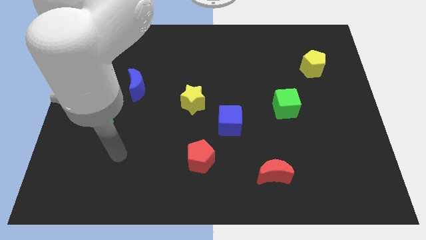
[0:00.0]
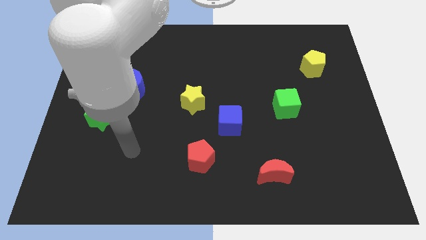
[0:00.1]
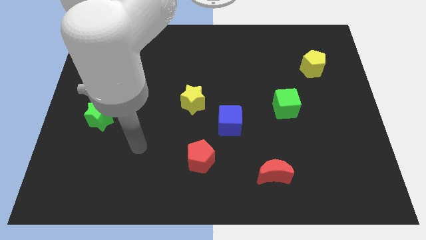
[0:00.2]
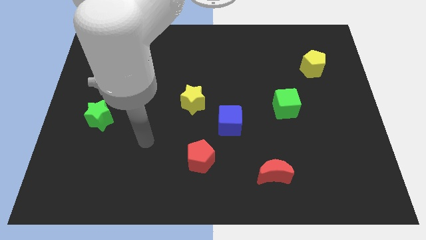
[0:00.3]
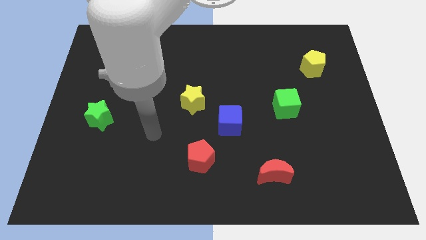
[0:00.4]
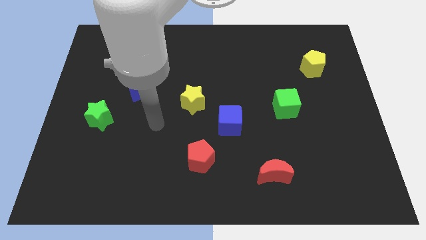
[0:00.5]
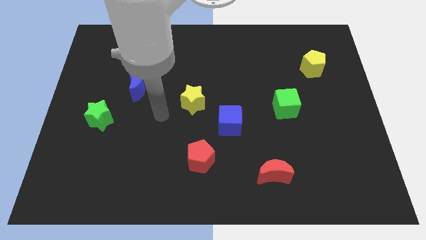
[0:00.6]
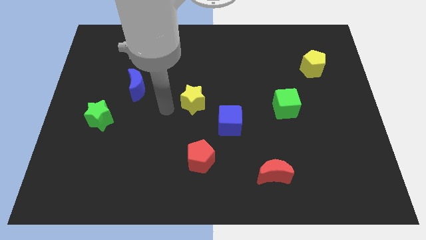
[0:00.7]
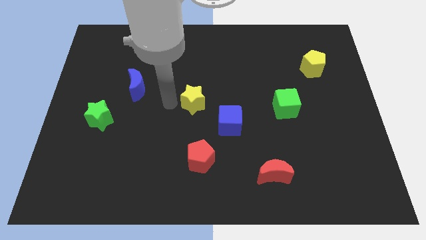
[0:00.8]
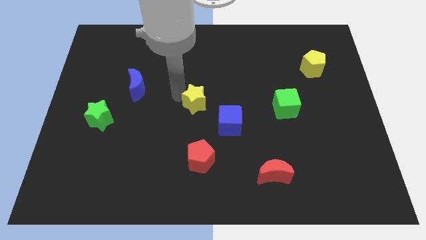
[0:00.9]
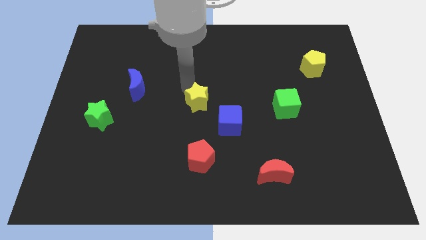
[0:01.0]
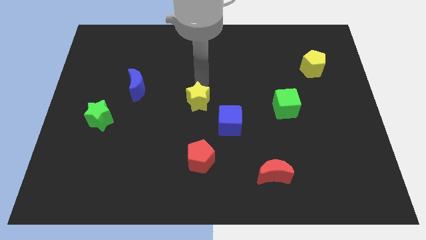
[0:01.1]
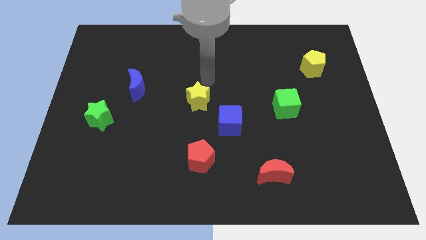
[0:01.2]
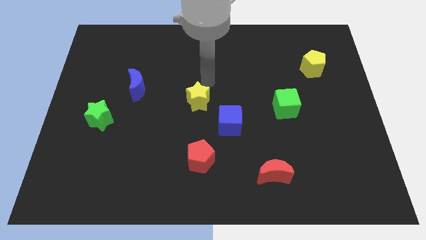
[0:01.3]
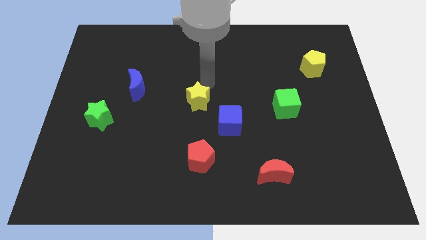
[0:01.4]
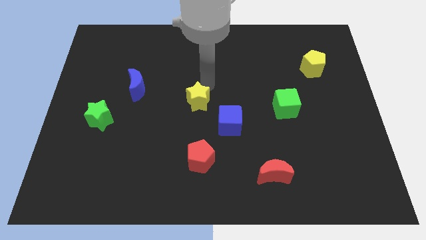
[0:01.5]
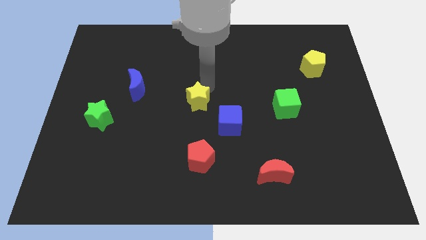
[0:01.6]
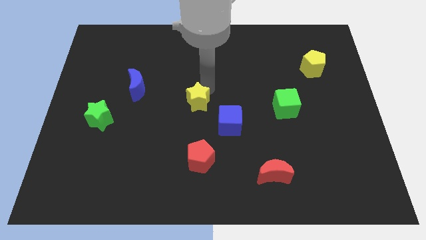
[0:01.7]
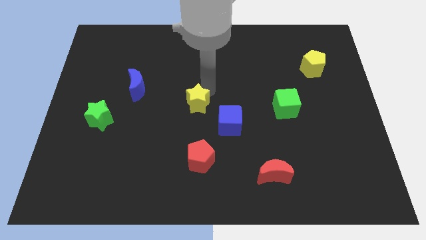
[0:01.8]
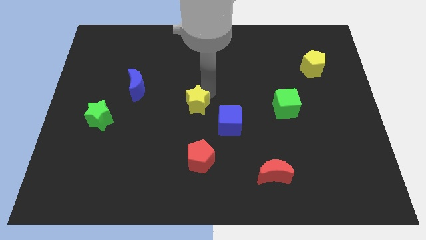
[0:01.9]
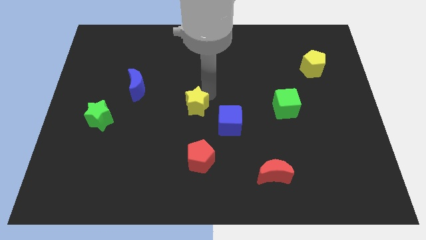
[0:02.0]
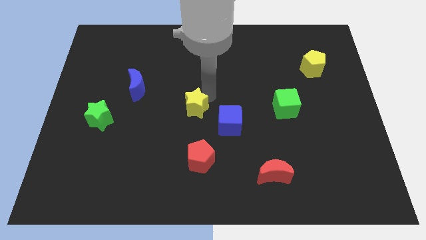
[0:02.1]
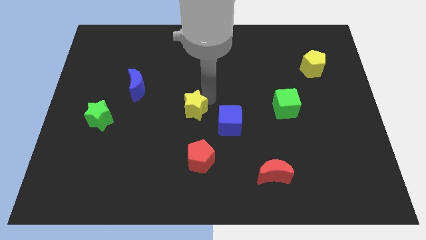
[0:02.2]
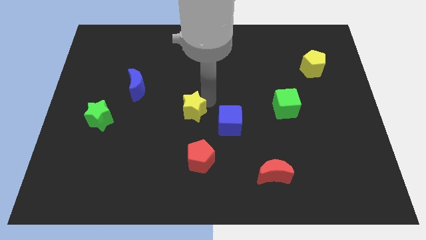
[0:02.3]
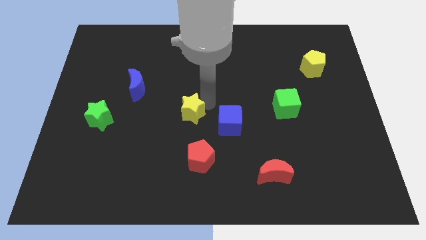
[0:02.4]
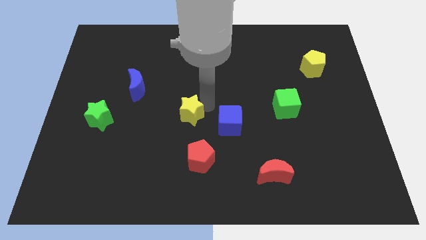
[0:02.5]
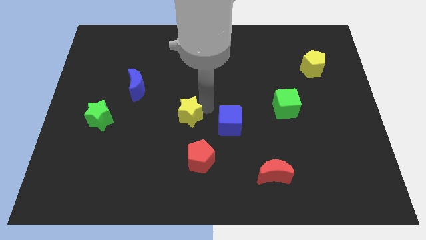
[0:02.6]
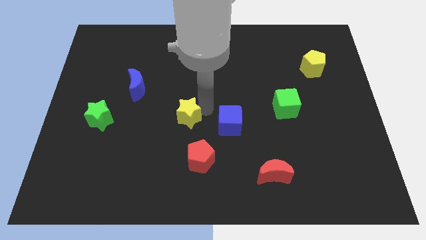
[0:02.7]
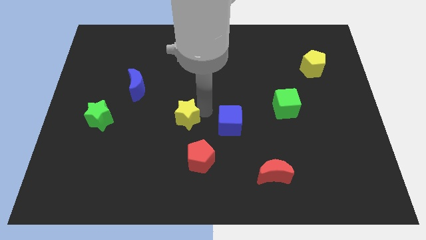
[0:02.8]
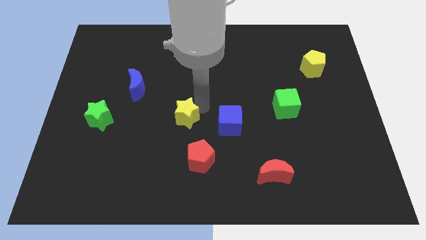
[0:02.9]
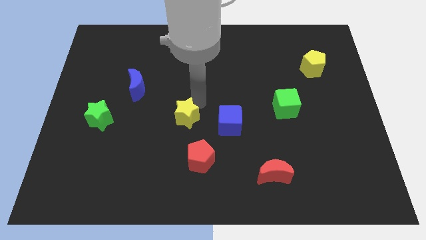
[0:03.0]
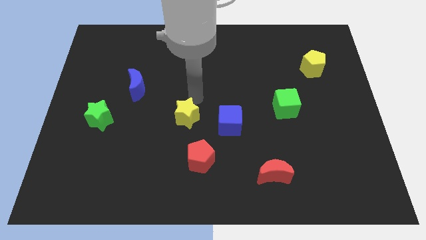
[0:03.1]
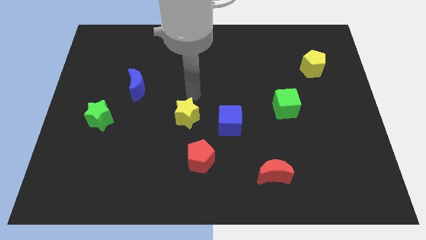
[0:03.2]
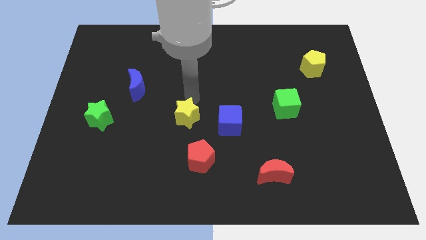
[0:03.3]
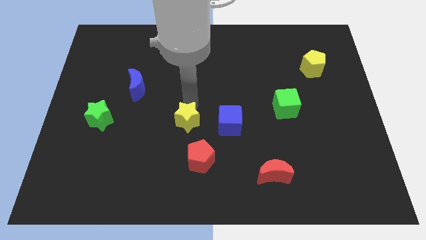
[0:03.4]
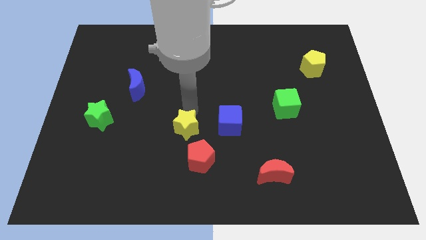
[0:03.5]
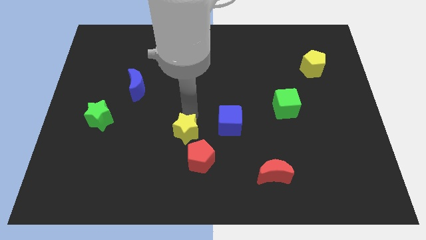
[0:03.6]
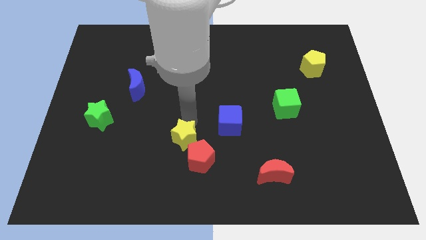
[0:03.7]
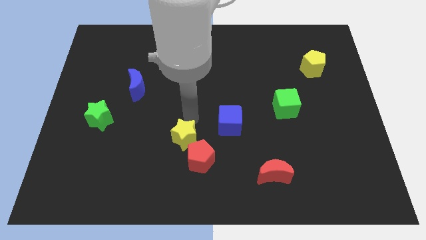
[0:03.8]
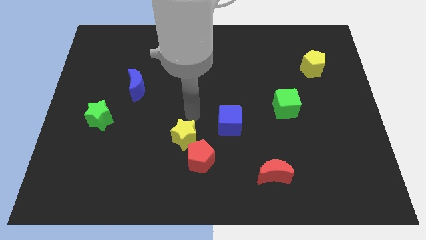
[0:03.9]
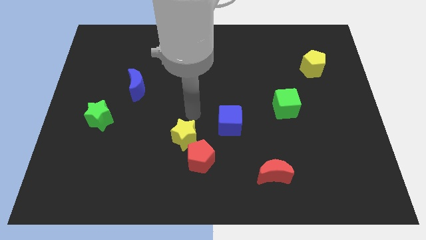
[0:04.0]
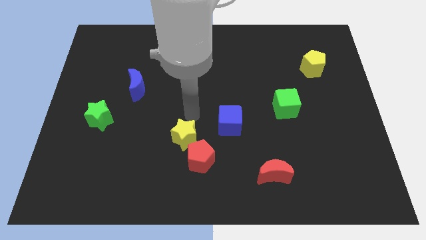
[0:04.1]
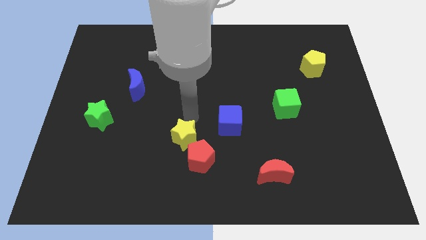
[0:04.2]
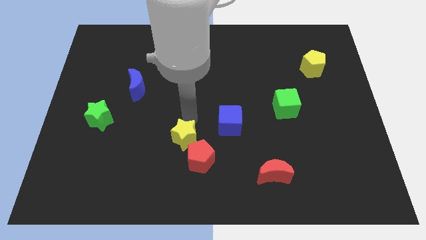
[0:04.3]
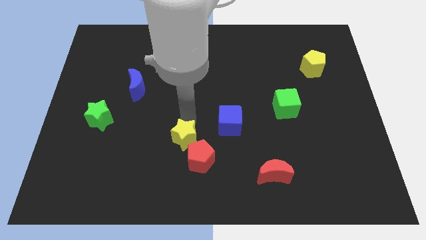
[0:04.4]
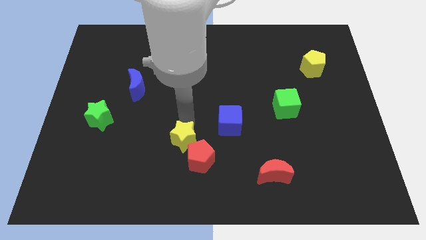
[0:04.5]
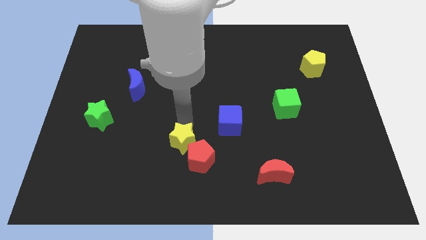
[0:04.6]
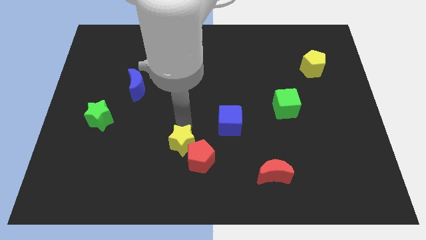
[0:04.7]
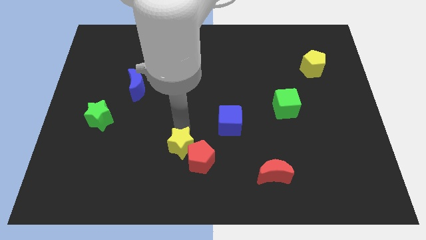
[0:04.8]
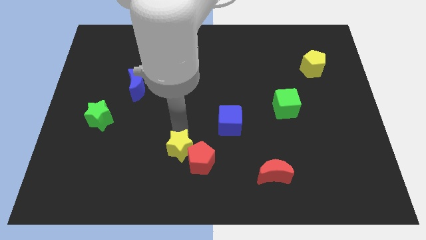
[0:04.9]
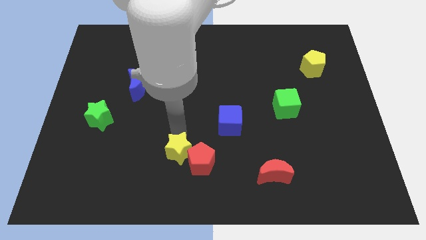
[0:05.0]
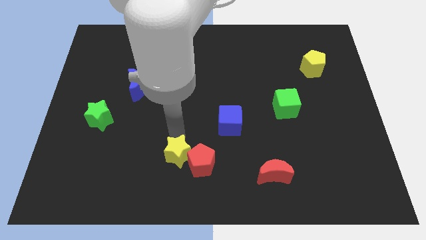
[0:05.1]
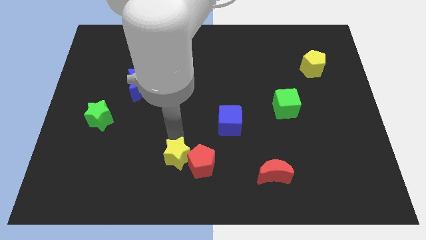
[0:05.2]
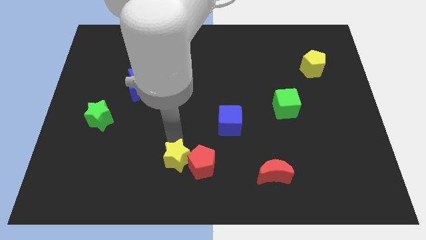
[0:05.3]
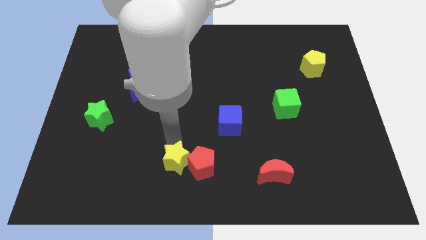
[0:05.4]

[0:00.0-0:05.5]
move the yellow star to the bottom side

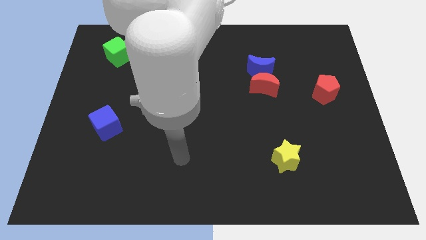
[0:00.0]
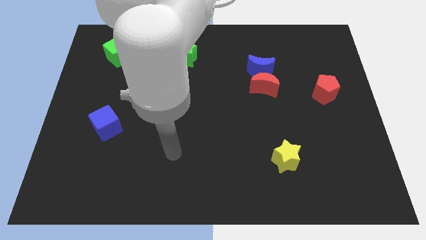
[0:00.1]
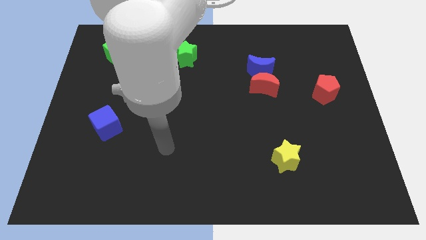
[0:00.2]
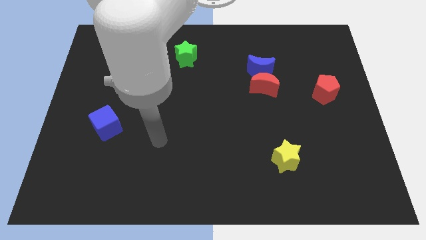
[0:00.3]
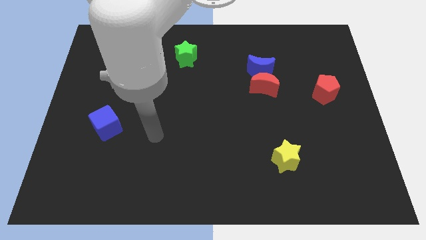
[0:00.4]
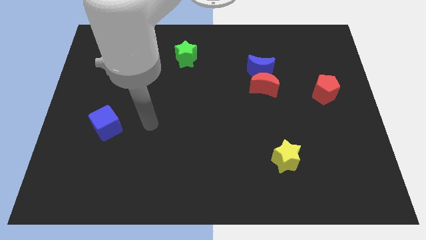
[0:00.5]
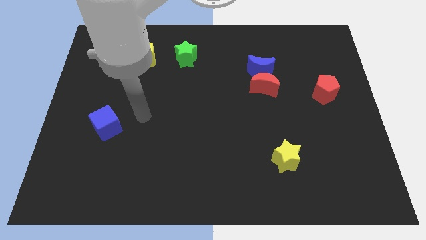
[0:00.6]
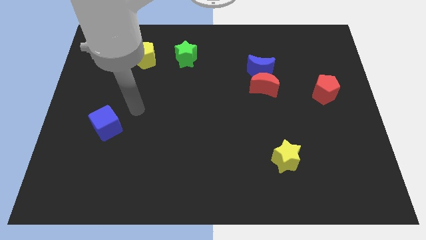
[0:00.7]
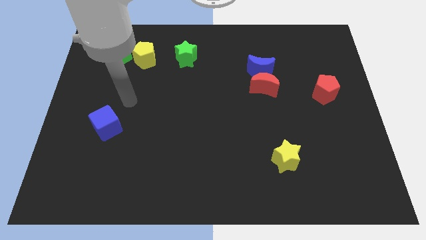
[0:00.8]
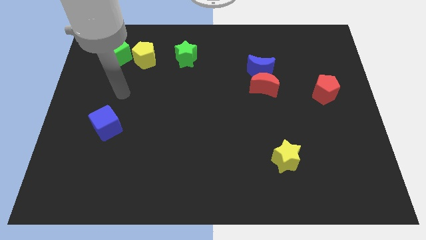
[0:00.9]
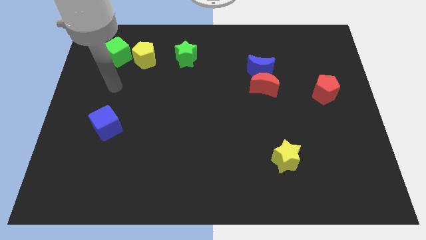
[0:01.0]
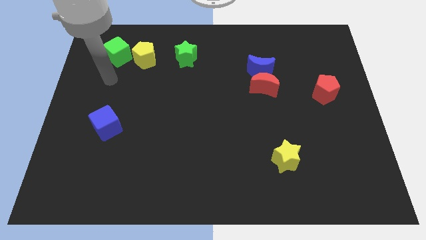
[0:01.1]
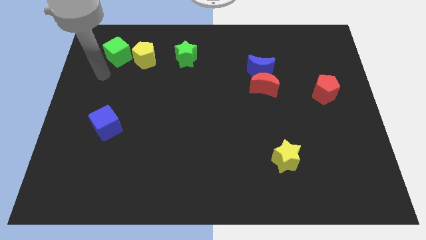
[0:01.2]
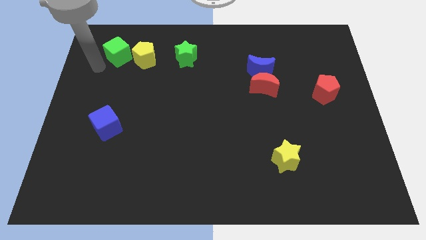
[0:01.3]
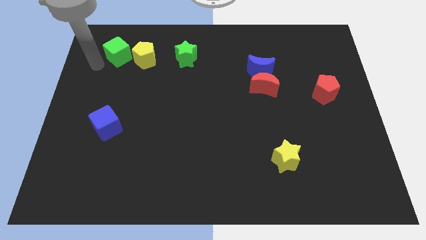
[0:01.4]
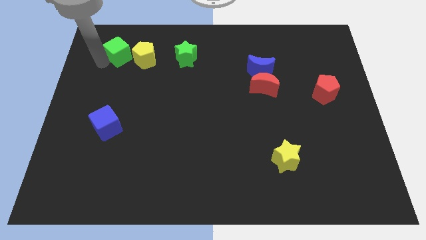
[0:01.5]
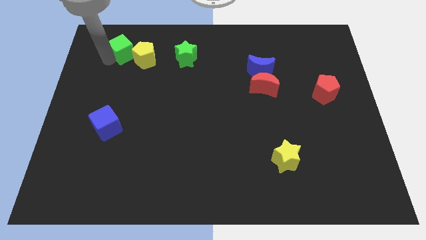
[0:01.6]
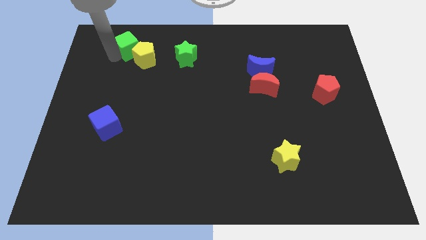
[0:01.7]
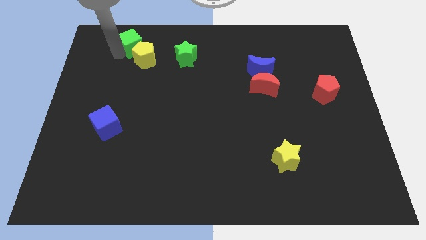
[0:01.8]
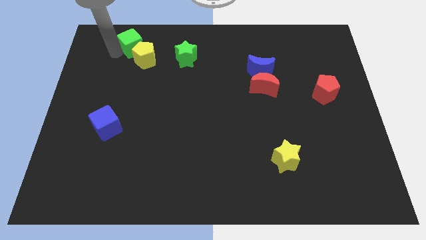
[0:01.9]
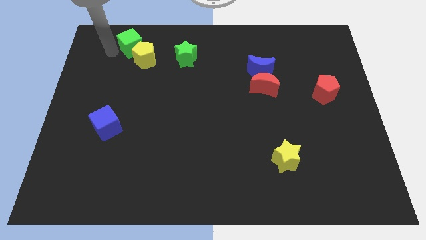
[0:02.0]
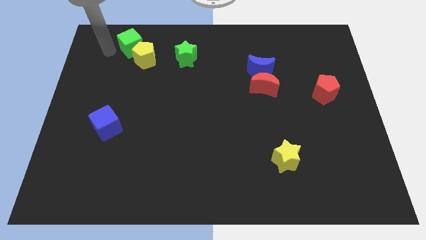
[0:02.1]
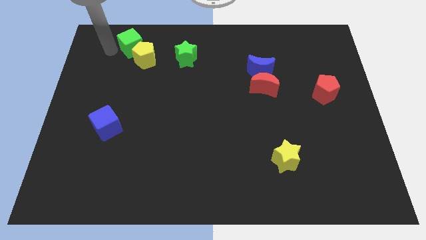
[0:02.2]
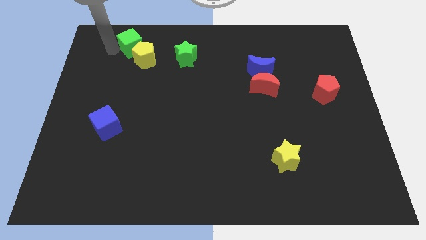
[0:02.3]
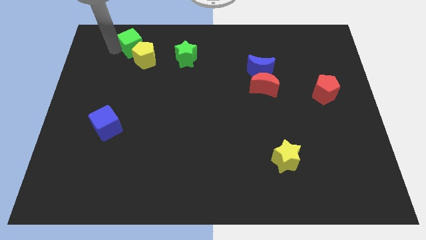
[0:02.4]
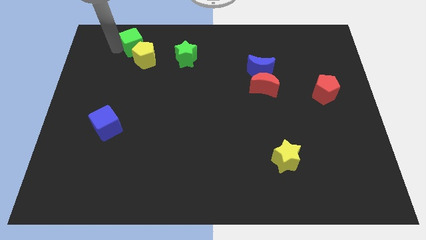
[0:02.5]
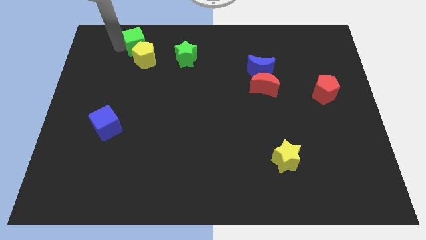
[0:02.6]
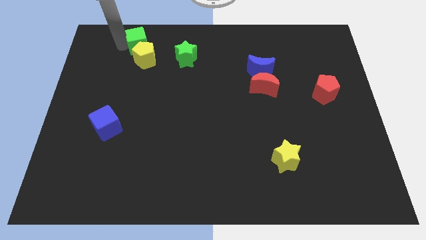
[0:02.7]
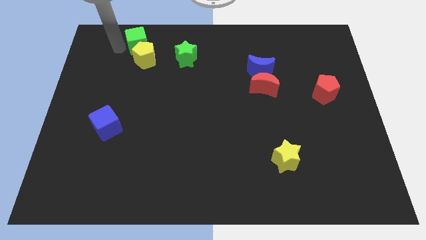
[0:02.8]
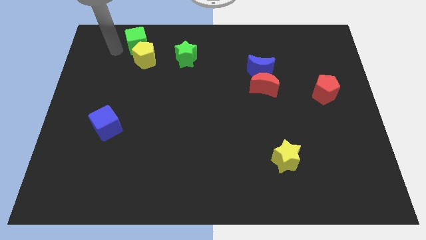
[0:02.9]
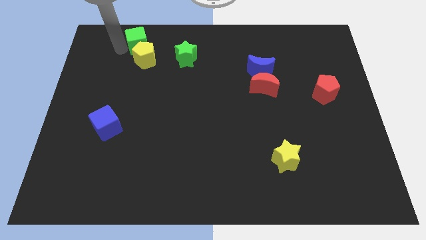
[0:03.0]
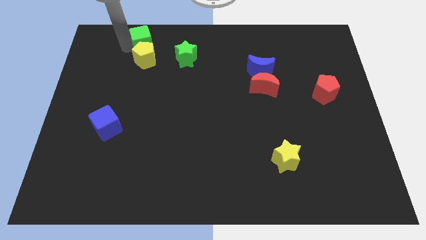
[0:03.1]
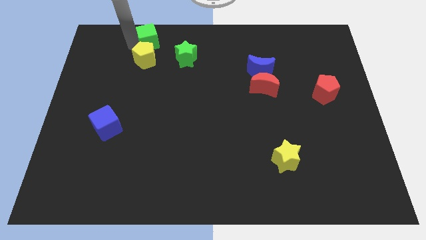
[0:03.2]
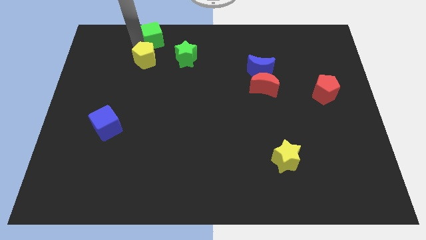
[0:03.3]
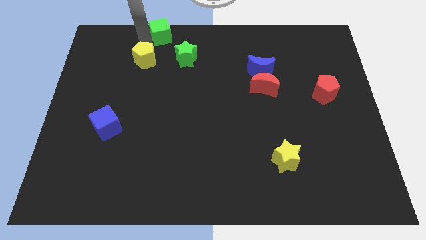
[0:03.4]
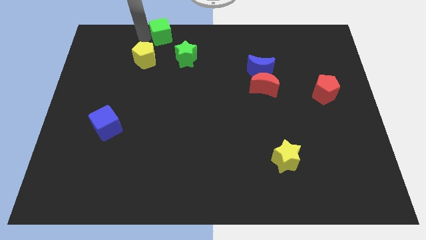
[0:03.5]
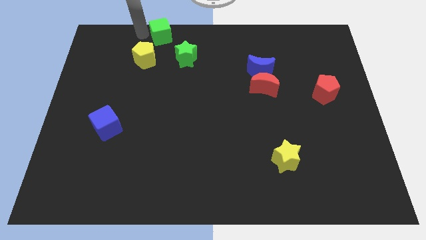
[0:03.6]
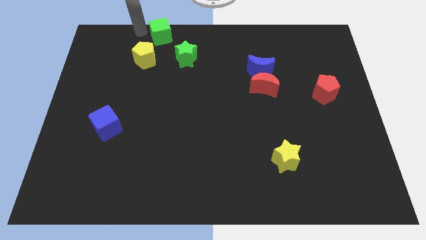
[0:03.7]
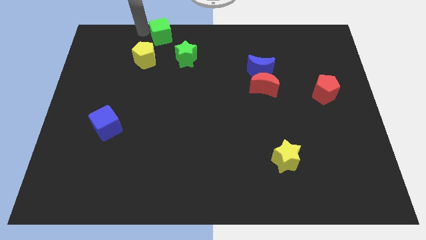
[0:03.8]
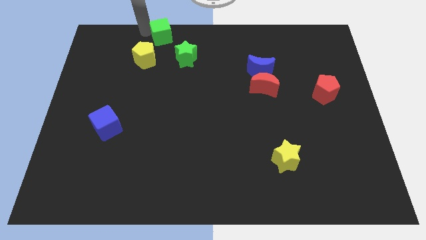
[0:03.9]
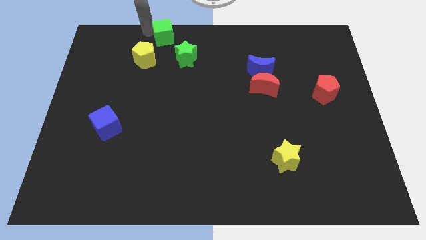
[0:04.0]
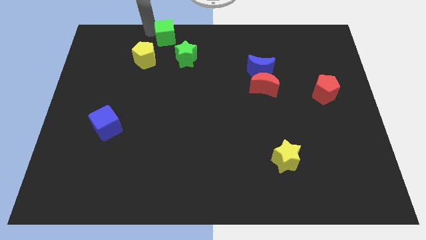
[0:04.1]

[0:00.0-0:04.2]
slide the green cube to the top
